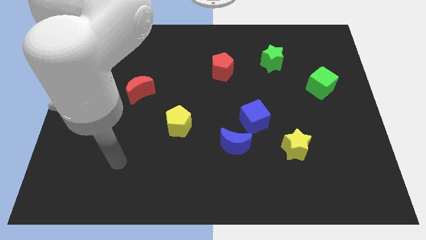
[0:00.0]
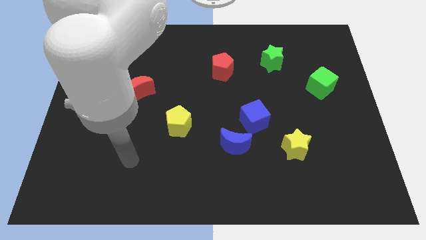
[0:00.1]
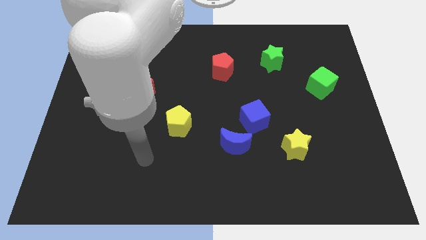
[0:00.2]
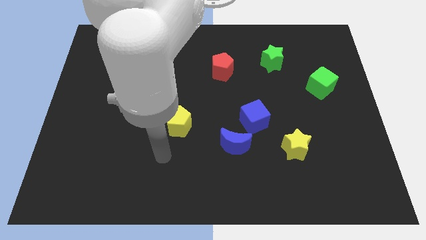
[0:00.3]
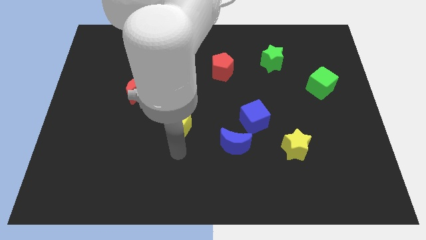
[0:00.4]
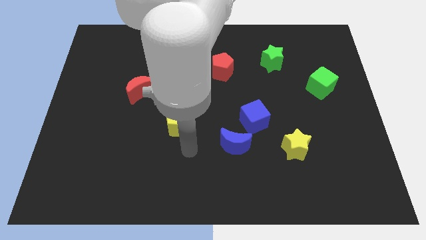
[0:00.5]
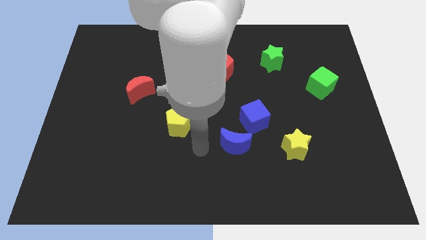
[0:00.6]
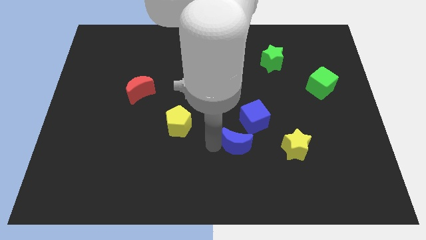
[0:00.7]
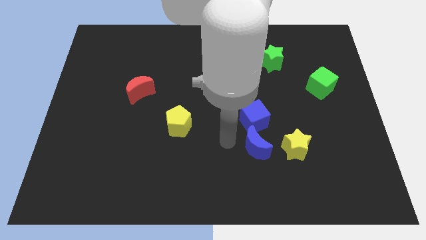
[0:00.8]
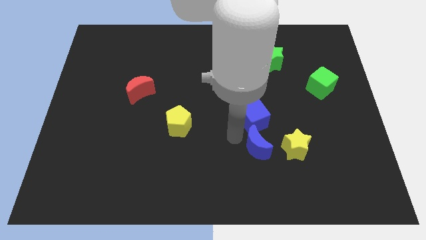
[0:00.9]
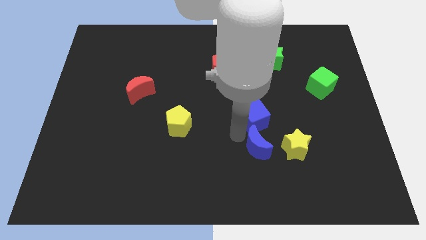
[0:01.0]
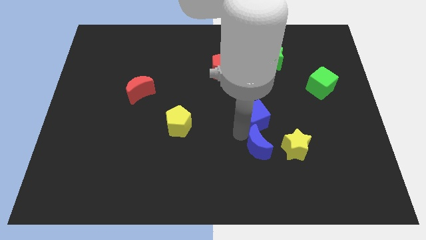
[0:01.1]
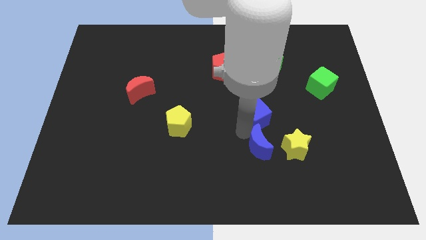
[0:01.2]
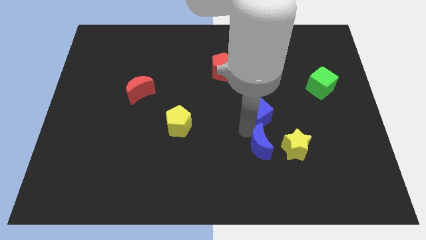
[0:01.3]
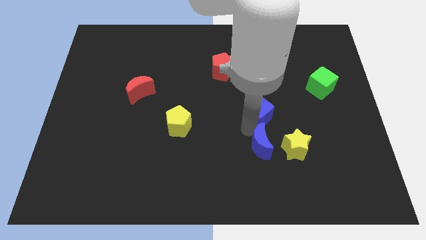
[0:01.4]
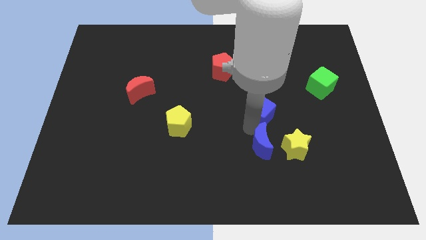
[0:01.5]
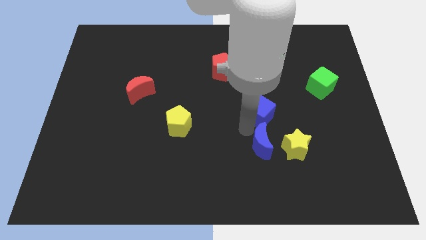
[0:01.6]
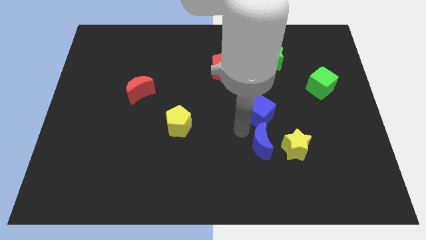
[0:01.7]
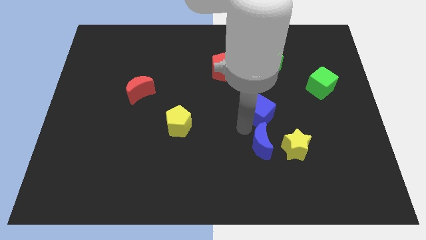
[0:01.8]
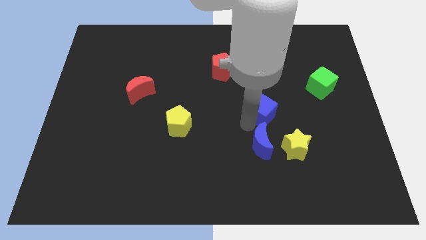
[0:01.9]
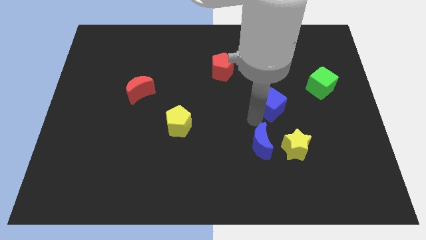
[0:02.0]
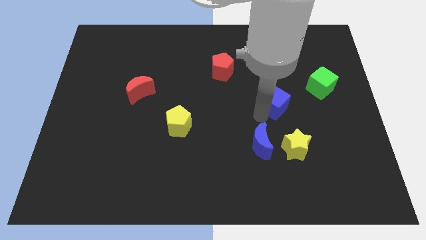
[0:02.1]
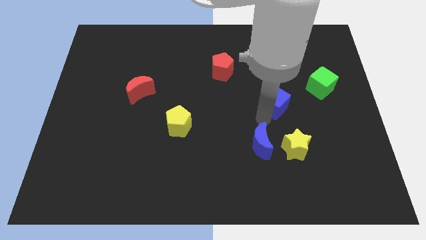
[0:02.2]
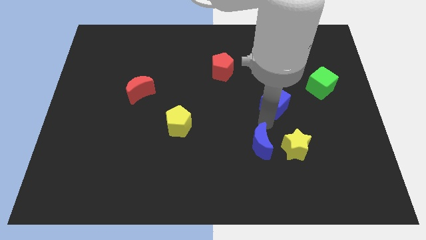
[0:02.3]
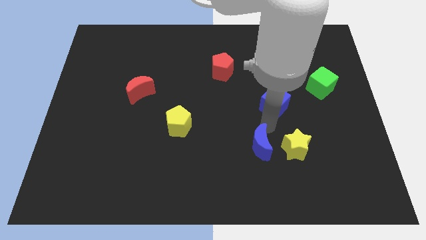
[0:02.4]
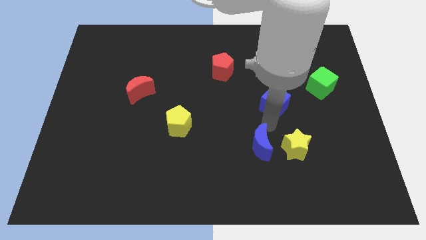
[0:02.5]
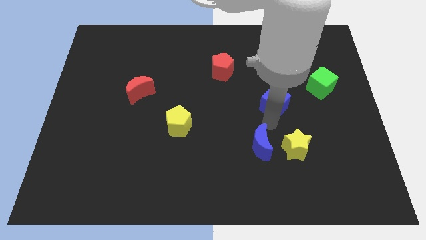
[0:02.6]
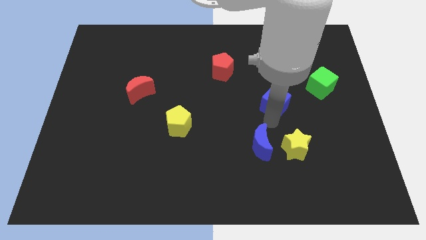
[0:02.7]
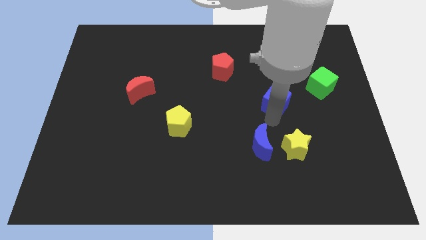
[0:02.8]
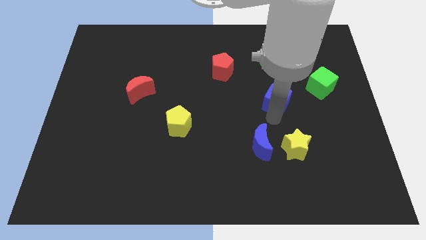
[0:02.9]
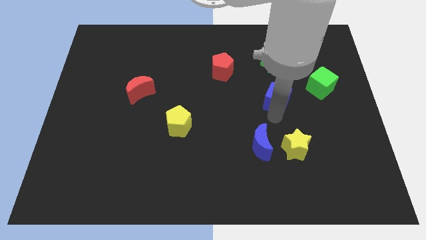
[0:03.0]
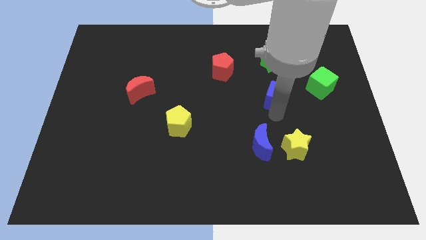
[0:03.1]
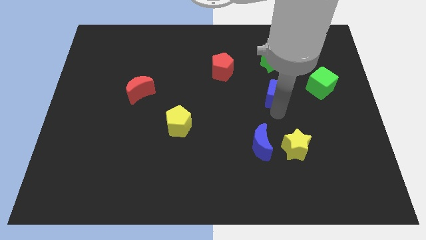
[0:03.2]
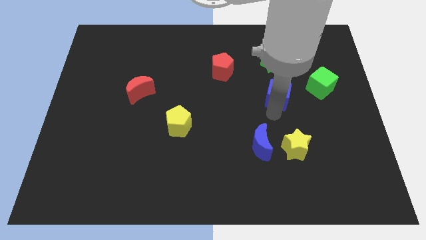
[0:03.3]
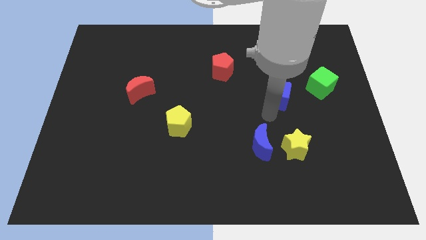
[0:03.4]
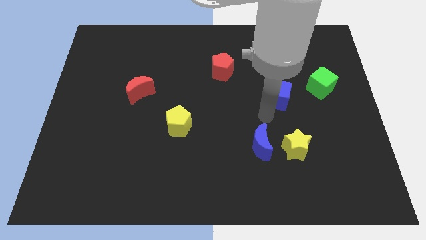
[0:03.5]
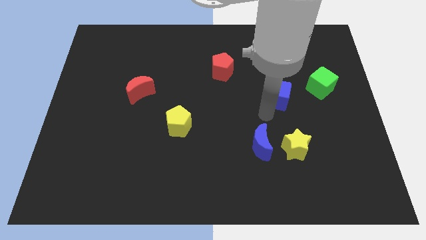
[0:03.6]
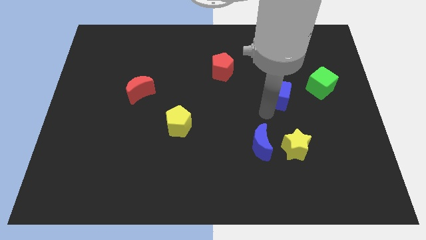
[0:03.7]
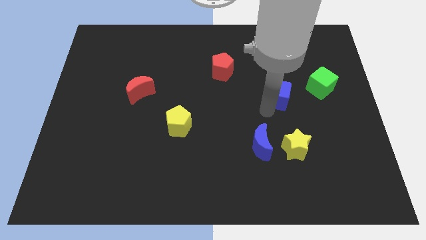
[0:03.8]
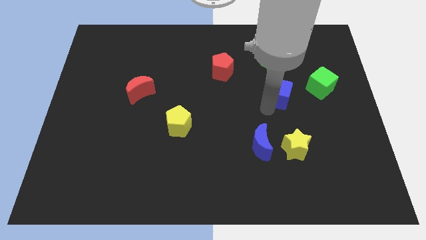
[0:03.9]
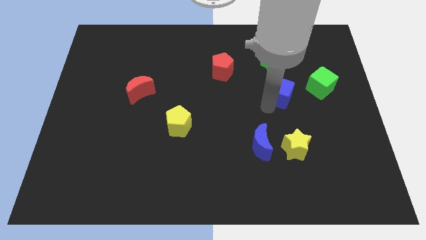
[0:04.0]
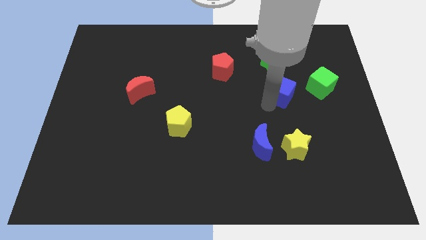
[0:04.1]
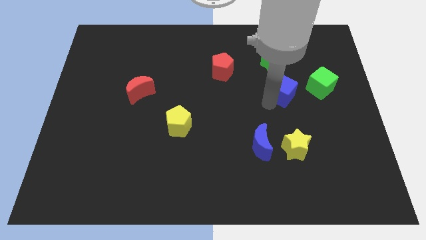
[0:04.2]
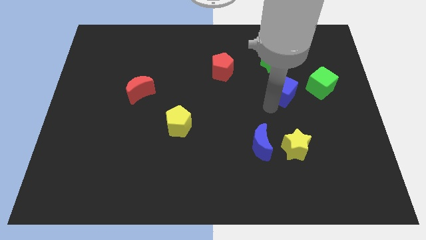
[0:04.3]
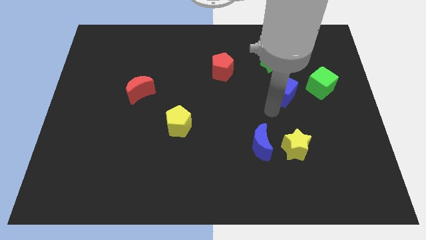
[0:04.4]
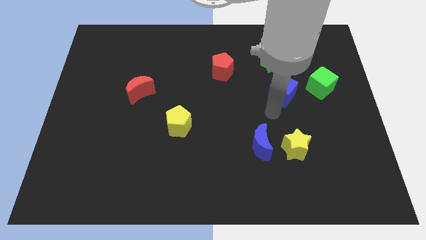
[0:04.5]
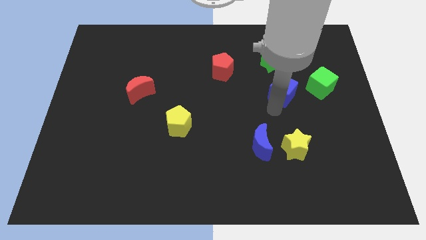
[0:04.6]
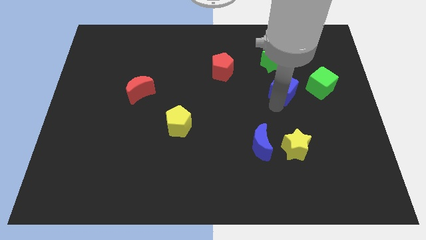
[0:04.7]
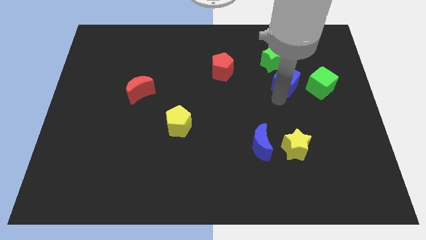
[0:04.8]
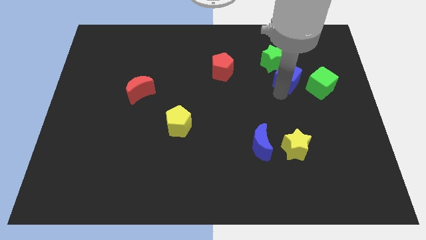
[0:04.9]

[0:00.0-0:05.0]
slide the blue cube to the top left side of the green cube

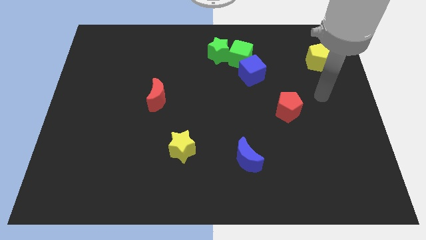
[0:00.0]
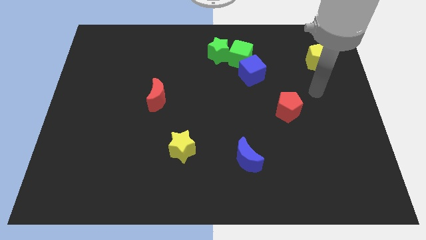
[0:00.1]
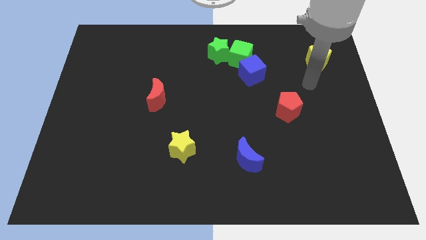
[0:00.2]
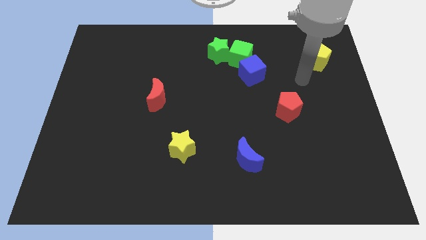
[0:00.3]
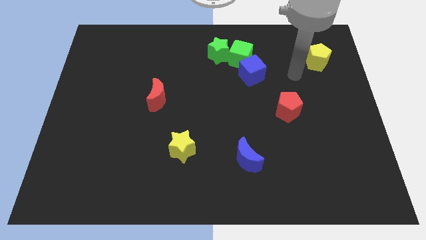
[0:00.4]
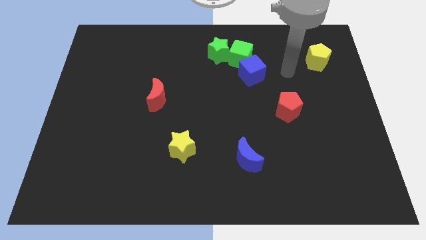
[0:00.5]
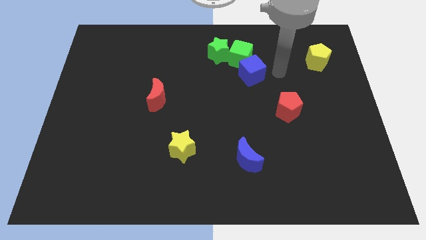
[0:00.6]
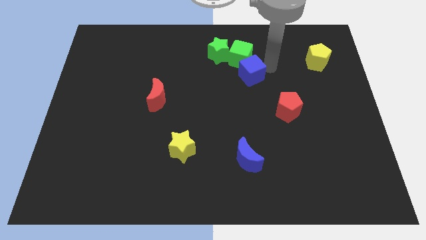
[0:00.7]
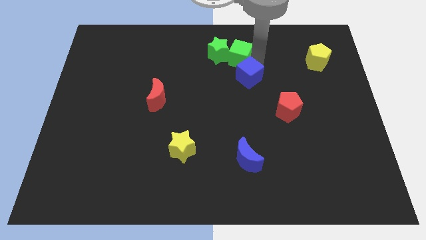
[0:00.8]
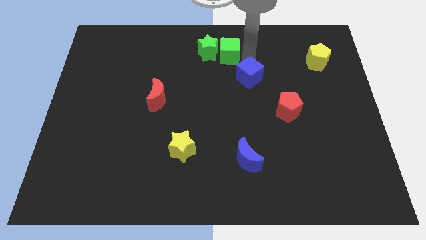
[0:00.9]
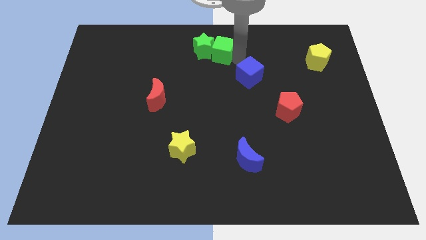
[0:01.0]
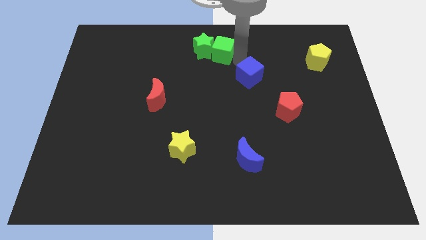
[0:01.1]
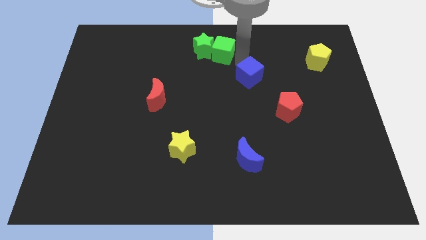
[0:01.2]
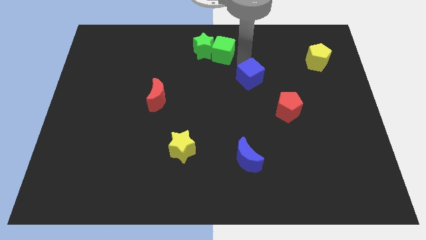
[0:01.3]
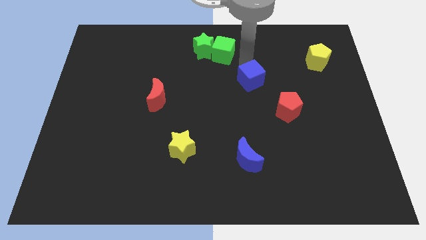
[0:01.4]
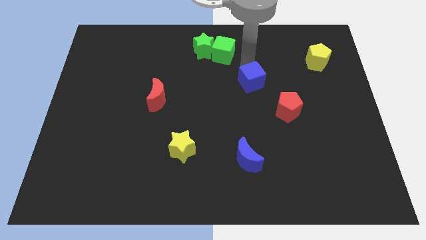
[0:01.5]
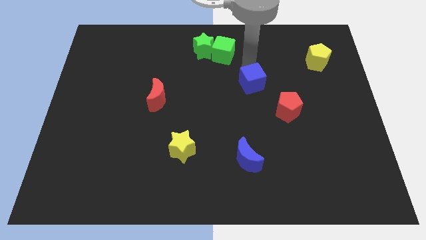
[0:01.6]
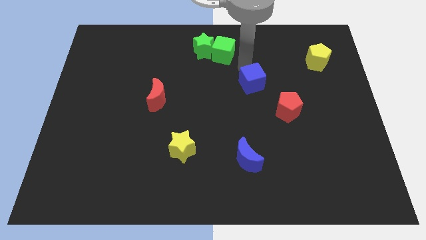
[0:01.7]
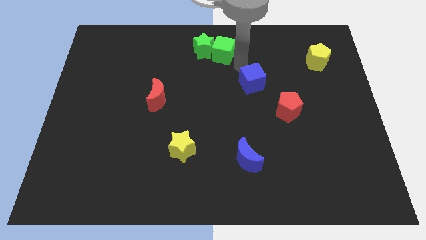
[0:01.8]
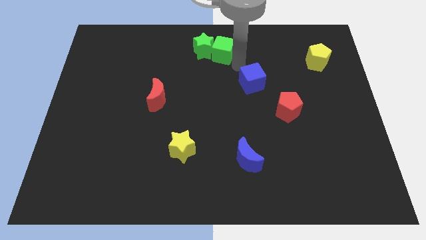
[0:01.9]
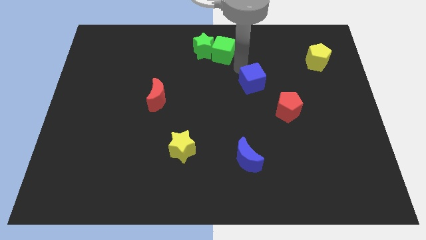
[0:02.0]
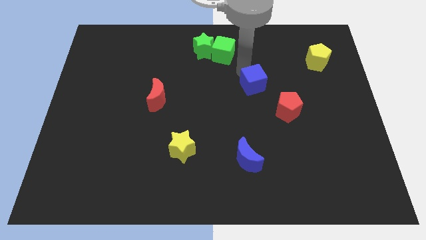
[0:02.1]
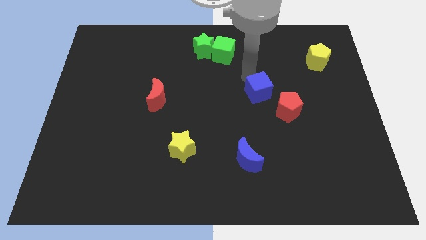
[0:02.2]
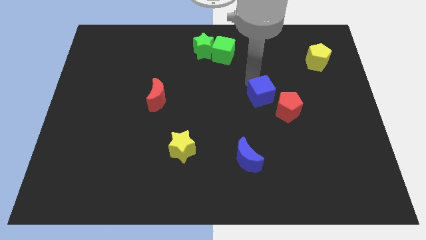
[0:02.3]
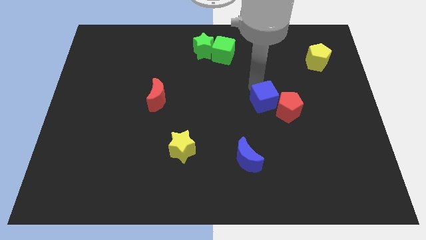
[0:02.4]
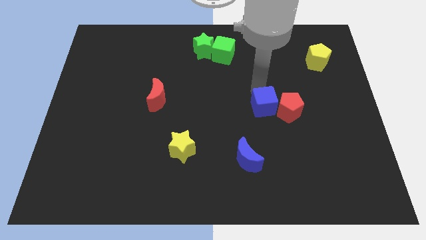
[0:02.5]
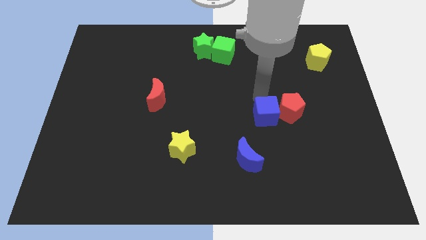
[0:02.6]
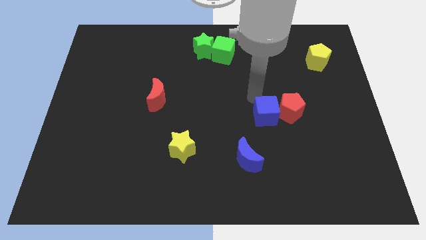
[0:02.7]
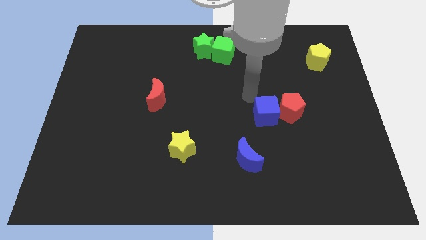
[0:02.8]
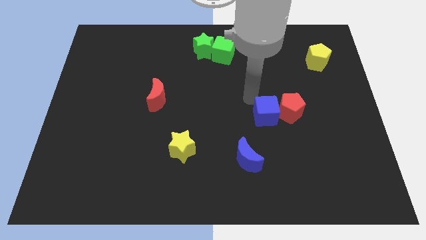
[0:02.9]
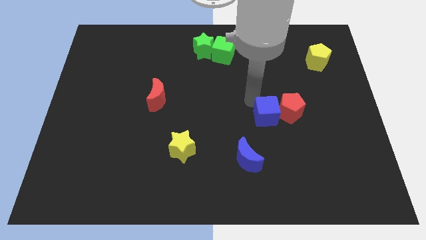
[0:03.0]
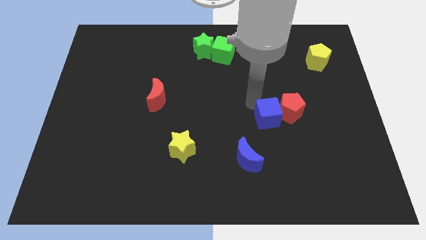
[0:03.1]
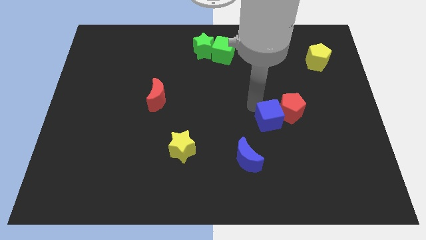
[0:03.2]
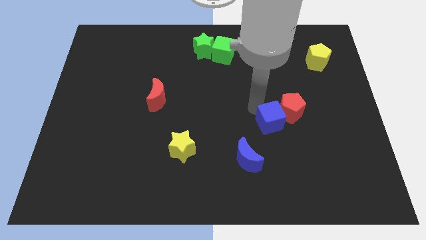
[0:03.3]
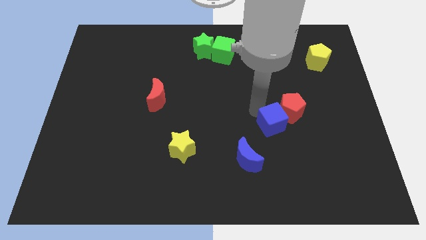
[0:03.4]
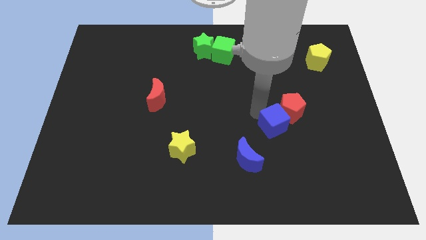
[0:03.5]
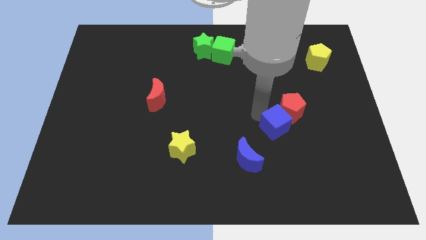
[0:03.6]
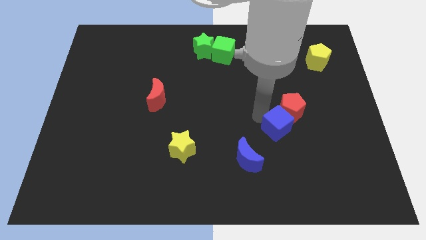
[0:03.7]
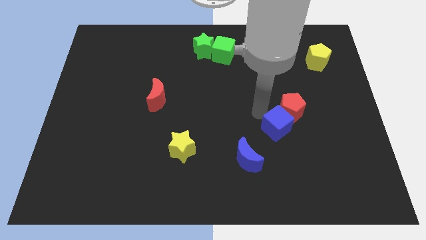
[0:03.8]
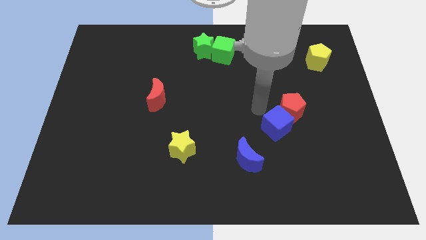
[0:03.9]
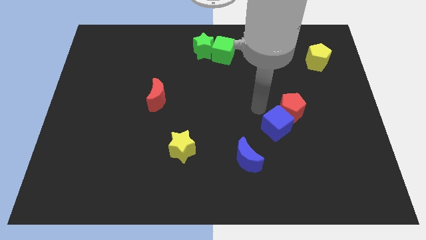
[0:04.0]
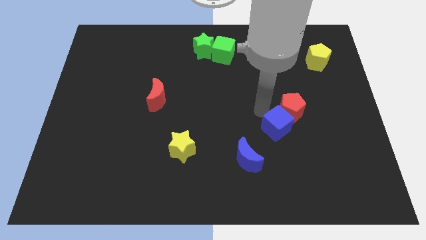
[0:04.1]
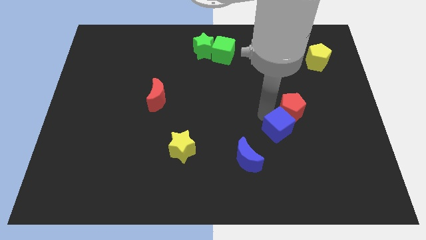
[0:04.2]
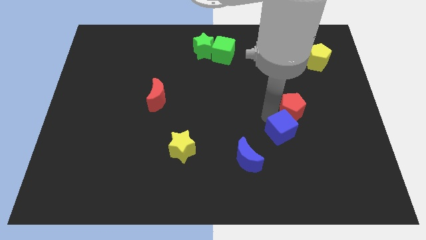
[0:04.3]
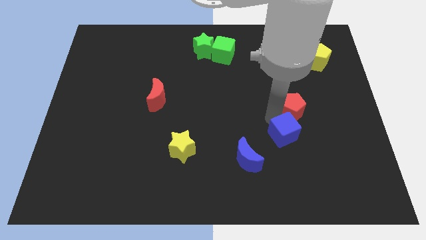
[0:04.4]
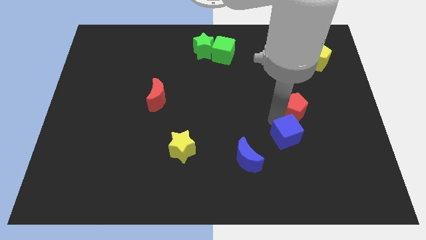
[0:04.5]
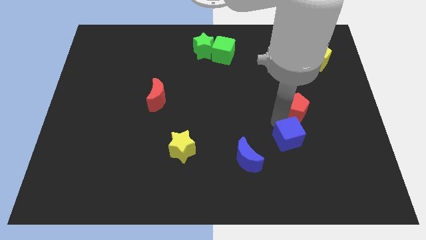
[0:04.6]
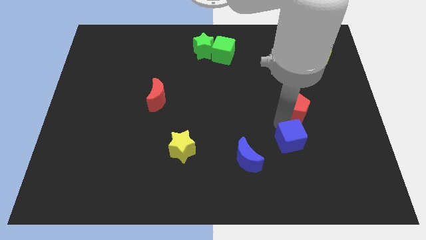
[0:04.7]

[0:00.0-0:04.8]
push the blue cube right of the blue moon
